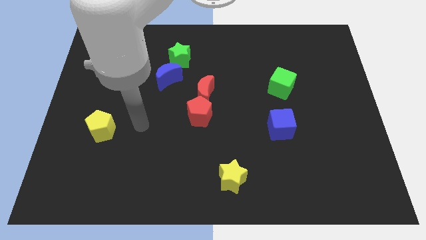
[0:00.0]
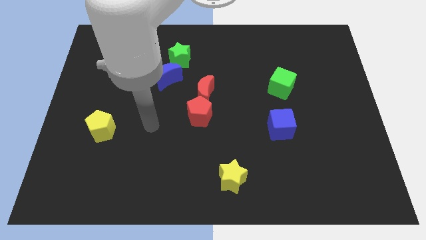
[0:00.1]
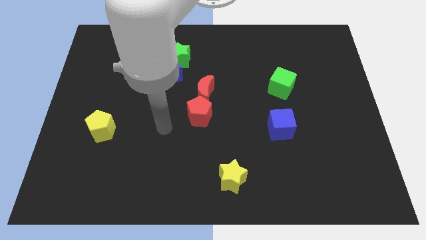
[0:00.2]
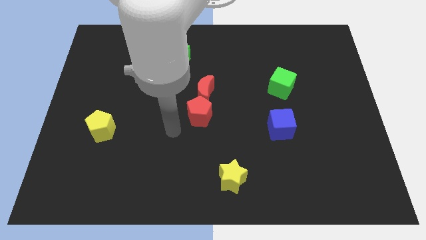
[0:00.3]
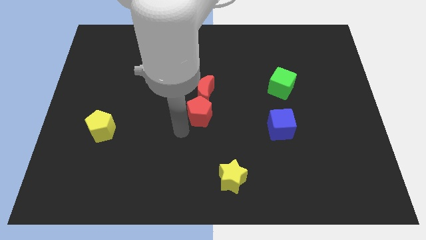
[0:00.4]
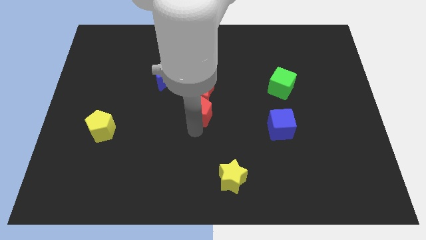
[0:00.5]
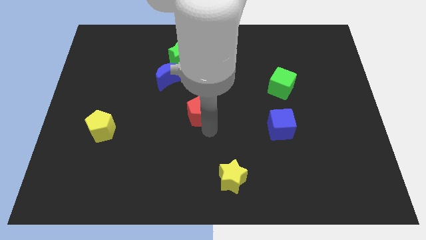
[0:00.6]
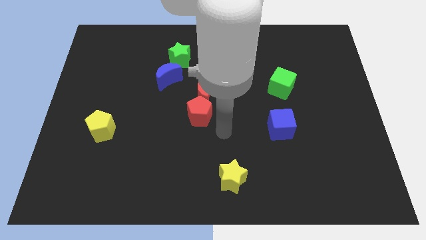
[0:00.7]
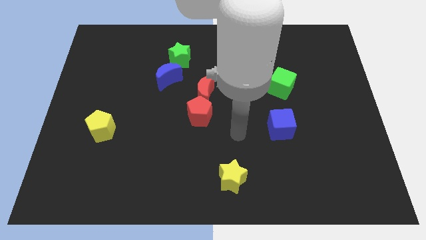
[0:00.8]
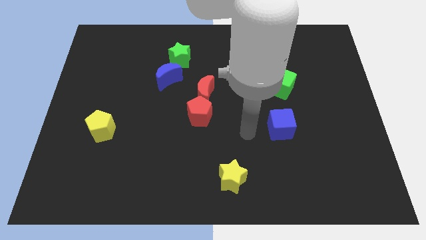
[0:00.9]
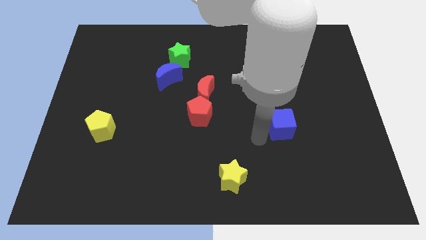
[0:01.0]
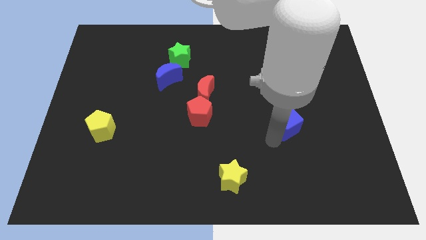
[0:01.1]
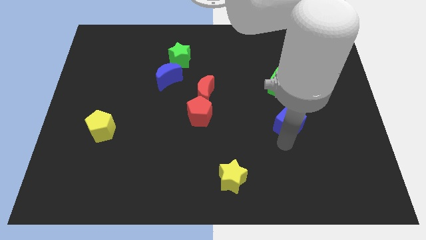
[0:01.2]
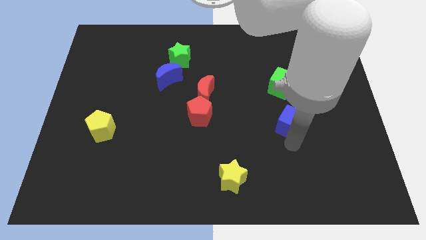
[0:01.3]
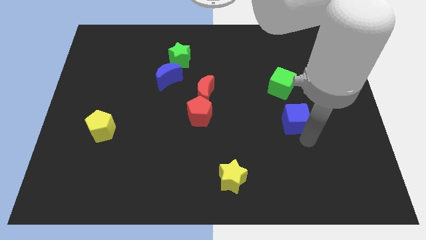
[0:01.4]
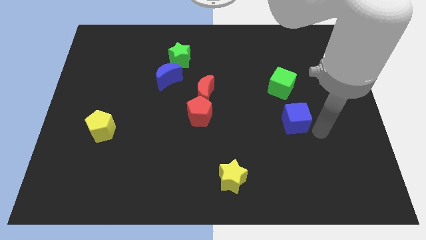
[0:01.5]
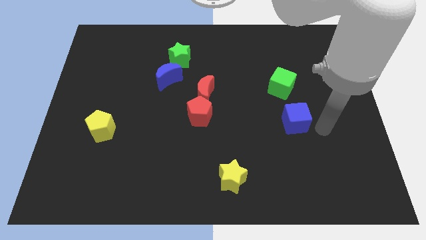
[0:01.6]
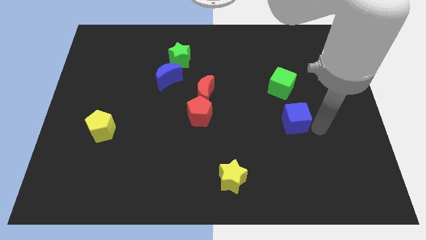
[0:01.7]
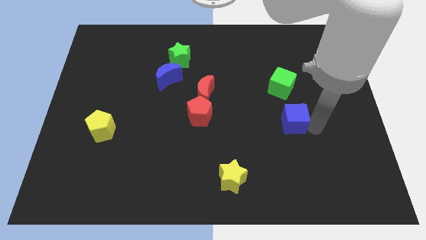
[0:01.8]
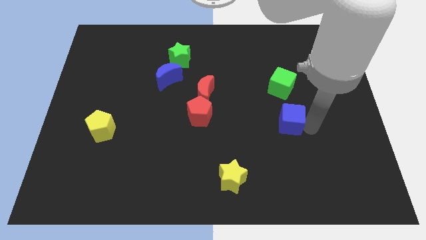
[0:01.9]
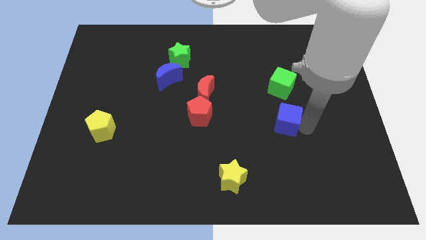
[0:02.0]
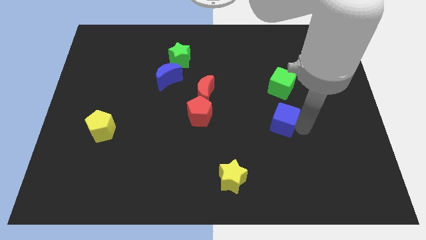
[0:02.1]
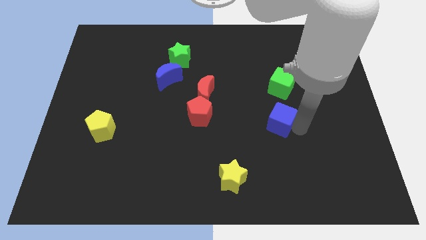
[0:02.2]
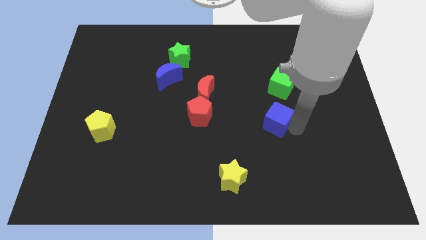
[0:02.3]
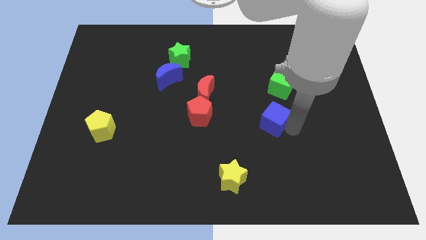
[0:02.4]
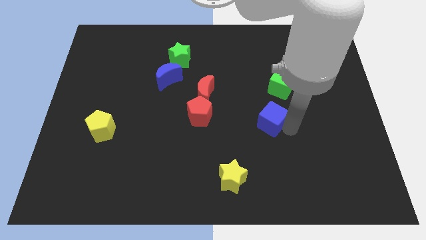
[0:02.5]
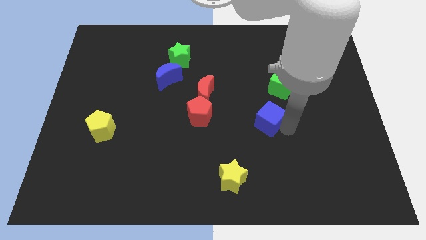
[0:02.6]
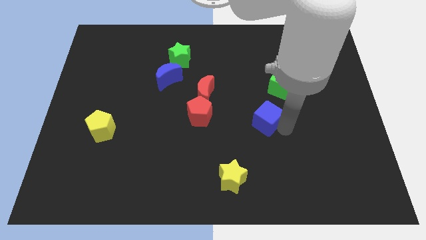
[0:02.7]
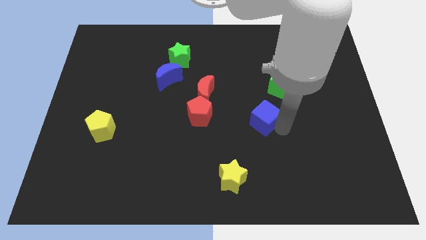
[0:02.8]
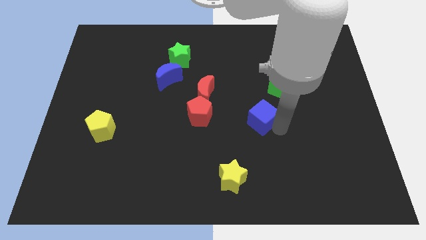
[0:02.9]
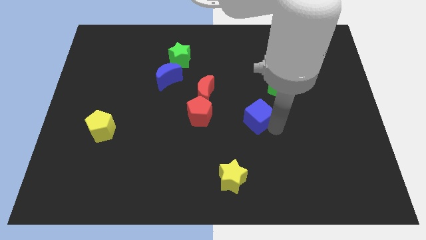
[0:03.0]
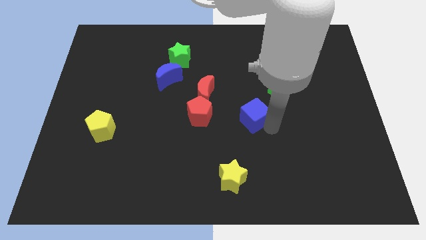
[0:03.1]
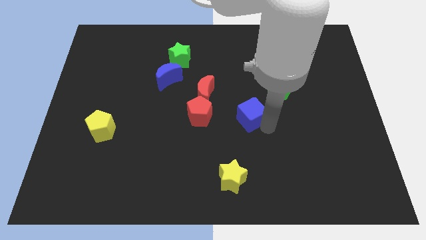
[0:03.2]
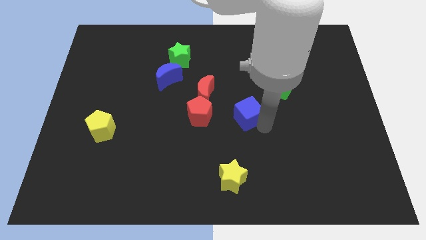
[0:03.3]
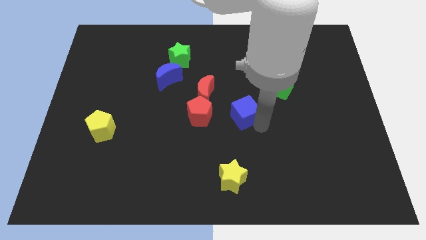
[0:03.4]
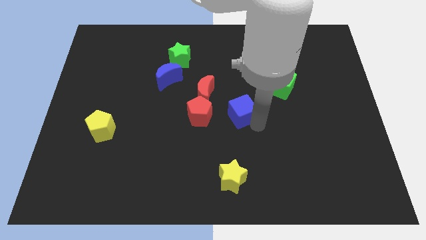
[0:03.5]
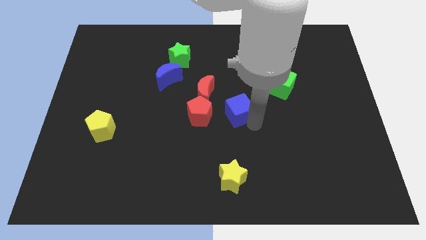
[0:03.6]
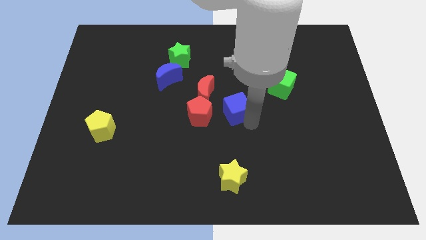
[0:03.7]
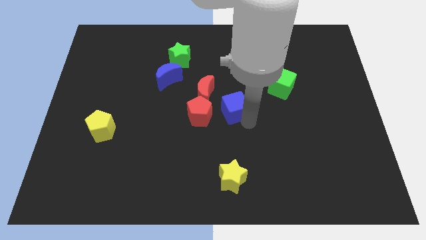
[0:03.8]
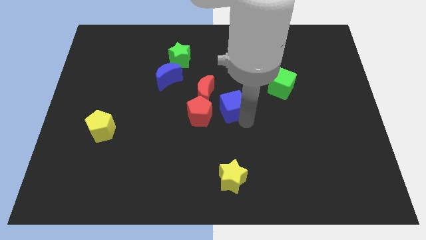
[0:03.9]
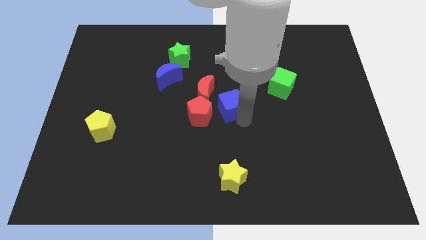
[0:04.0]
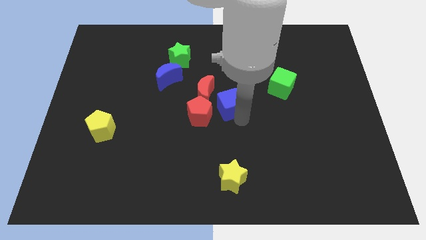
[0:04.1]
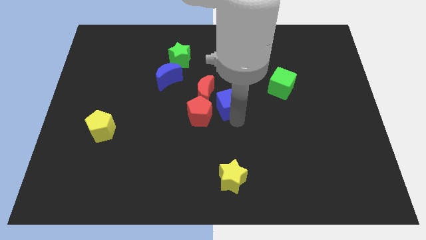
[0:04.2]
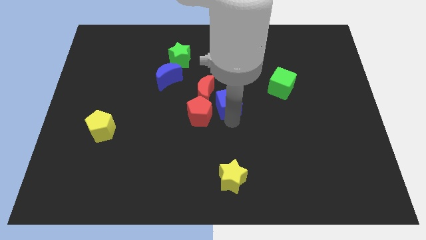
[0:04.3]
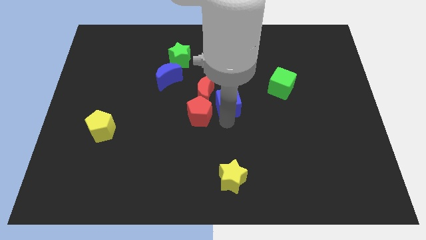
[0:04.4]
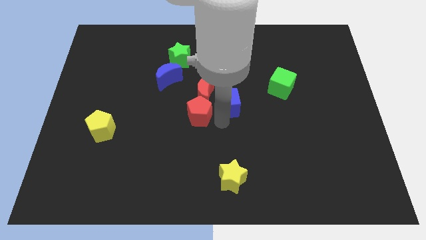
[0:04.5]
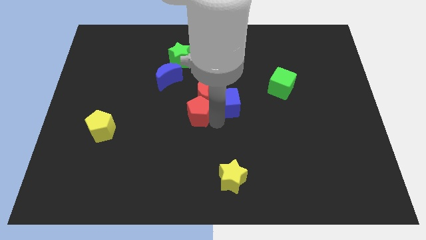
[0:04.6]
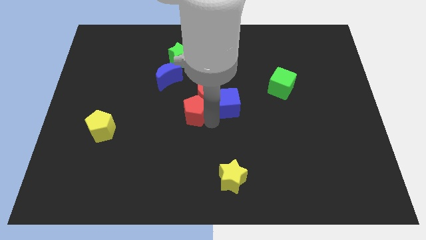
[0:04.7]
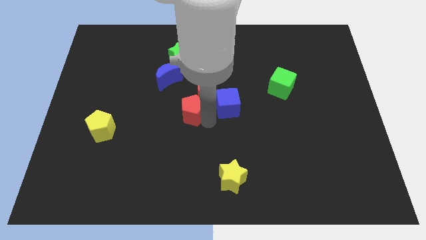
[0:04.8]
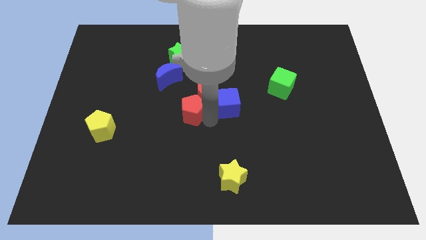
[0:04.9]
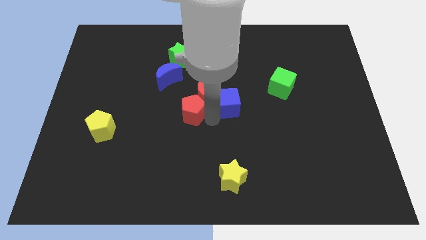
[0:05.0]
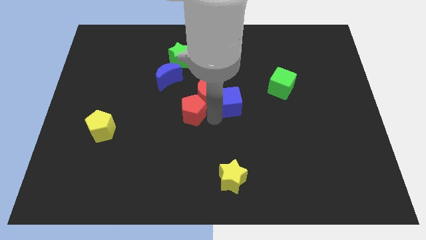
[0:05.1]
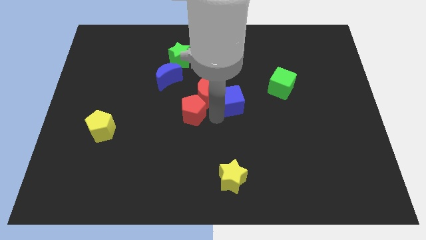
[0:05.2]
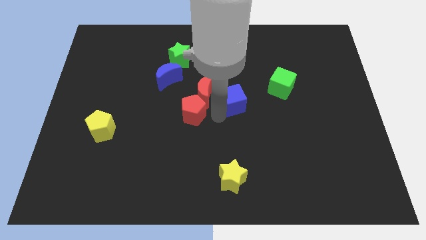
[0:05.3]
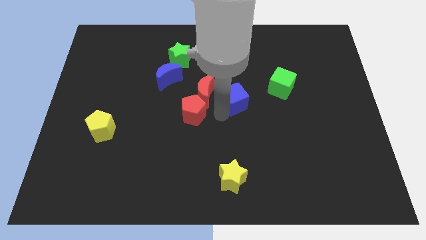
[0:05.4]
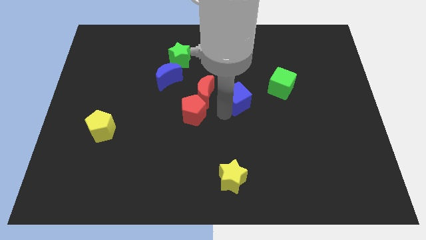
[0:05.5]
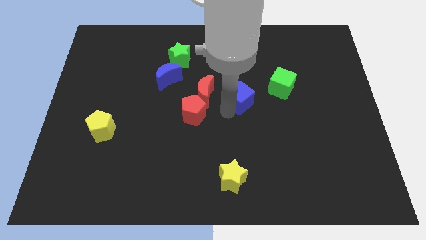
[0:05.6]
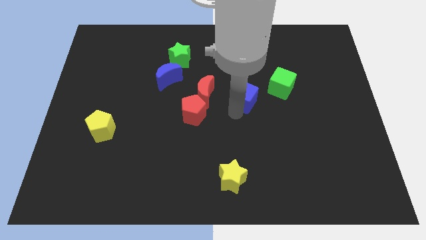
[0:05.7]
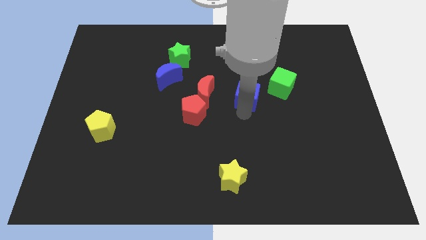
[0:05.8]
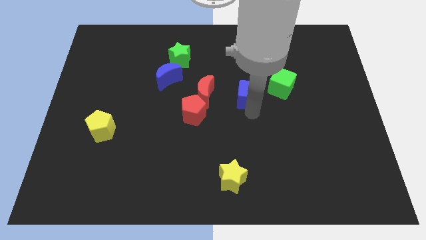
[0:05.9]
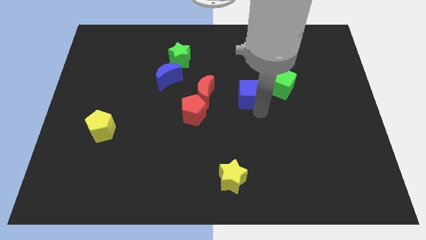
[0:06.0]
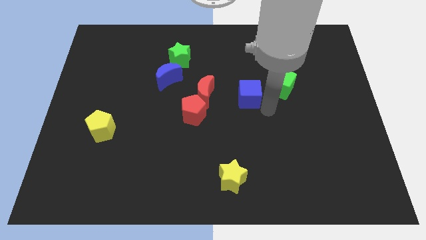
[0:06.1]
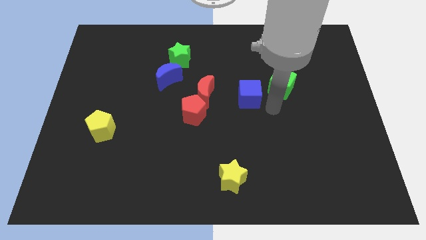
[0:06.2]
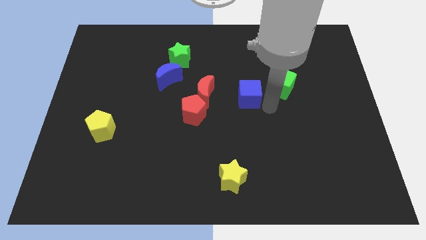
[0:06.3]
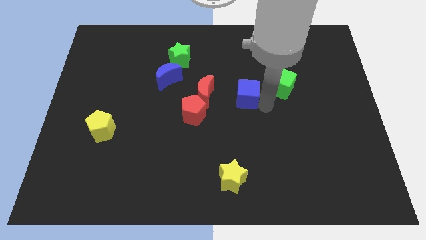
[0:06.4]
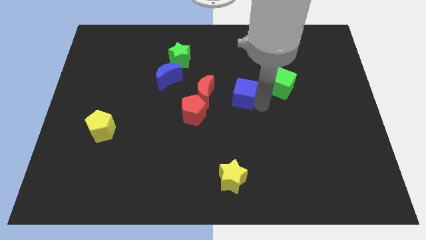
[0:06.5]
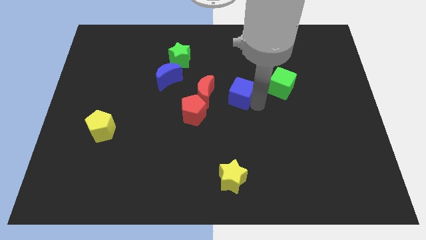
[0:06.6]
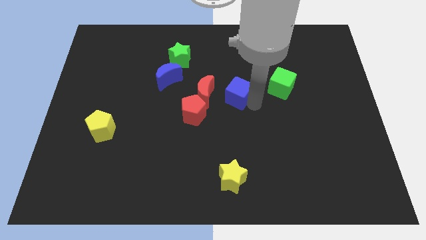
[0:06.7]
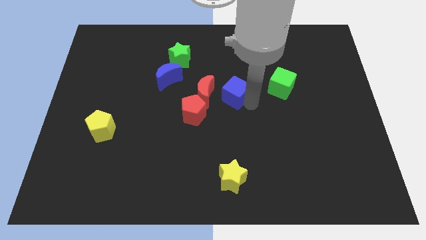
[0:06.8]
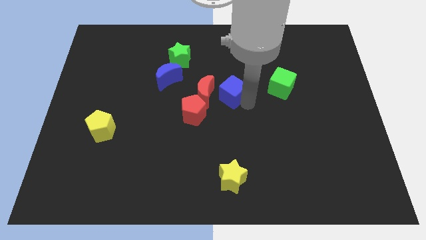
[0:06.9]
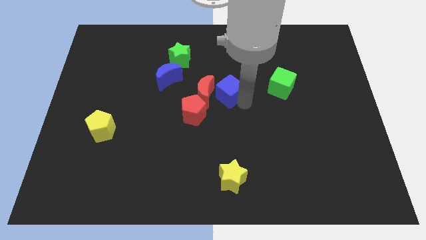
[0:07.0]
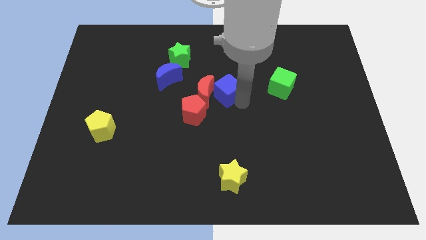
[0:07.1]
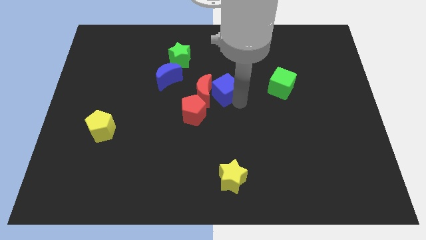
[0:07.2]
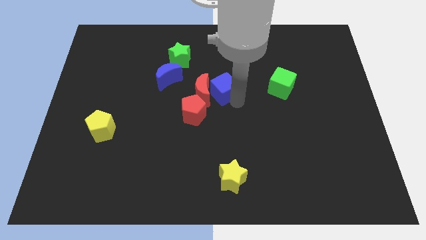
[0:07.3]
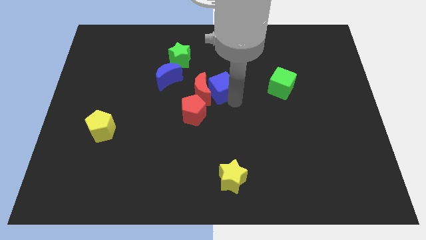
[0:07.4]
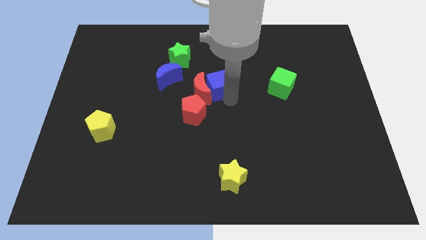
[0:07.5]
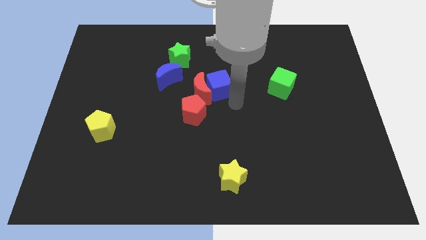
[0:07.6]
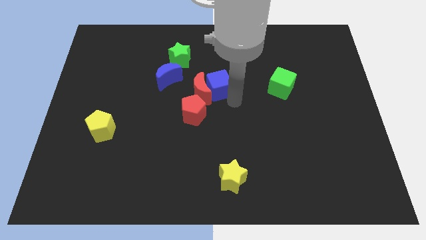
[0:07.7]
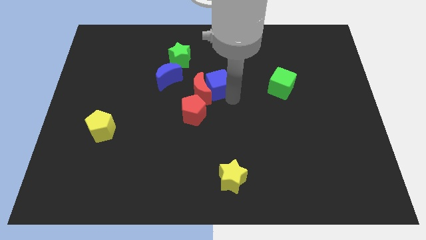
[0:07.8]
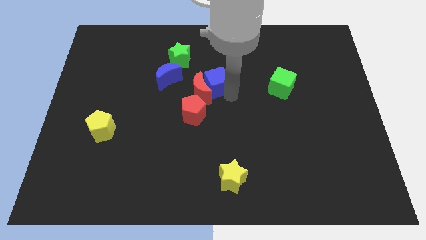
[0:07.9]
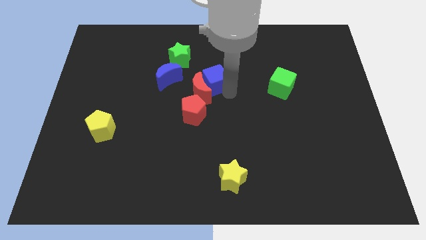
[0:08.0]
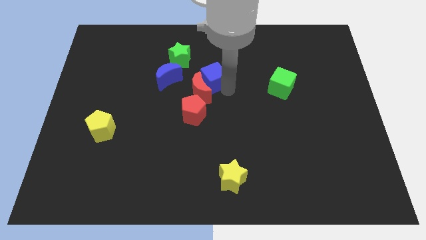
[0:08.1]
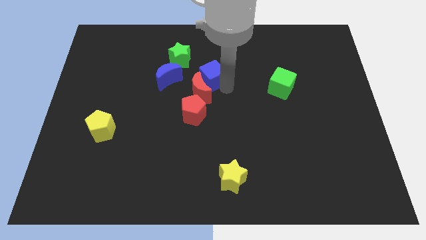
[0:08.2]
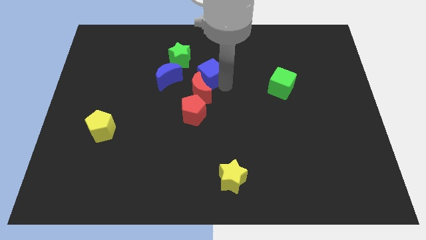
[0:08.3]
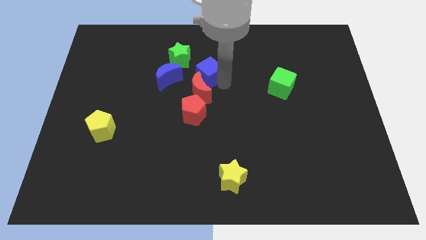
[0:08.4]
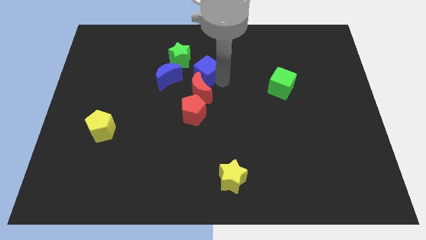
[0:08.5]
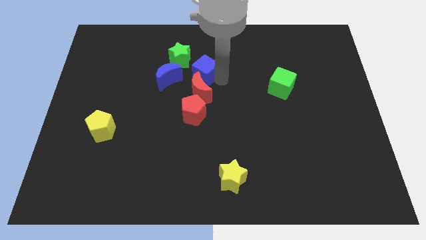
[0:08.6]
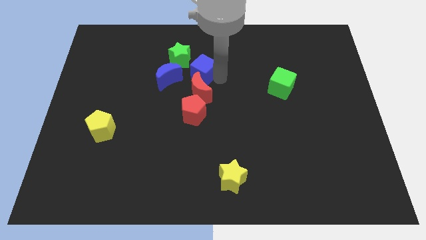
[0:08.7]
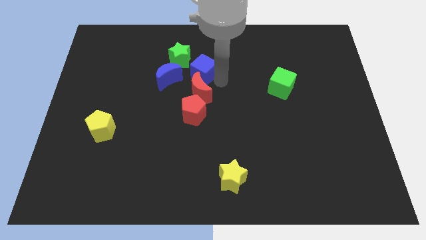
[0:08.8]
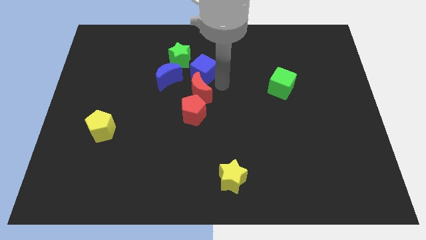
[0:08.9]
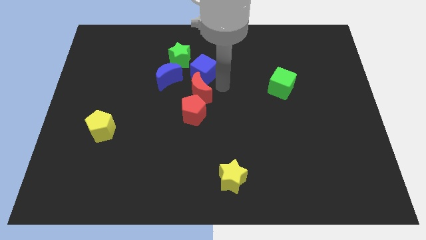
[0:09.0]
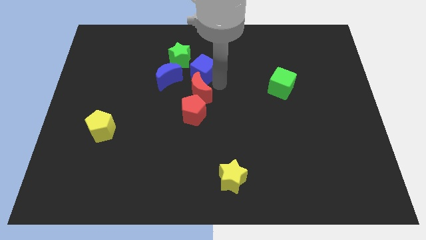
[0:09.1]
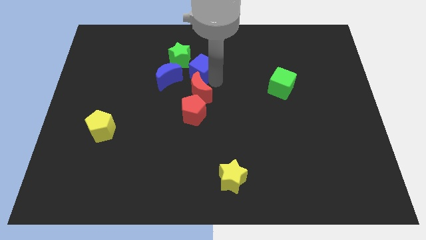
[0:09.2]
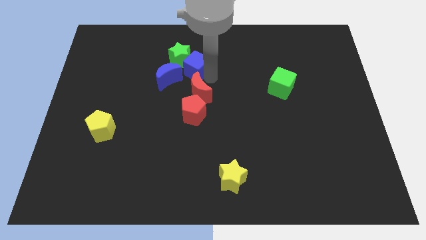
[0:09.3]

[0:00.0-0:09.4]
put the blue cube towards the green star
